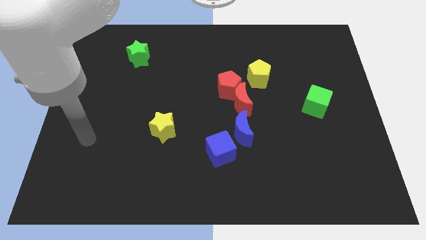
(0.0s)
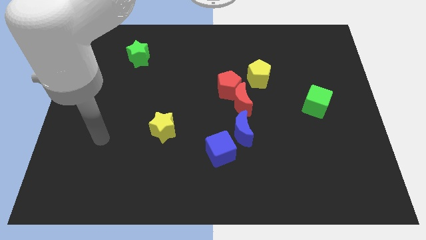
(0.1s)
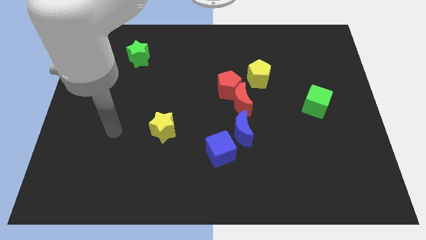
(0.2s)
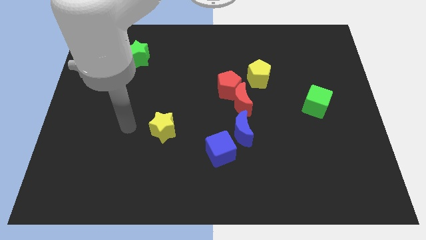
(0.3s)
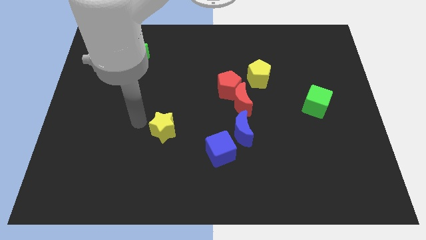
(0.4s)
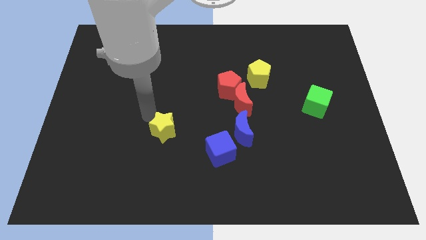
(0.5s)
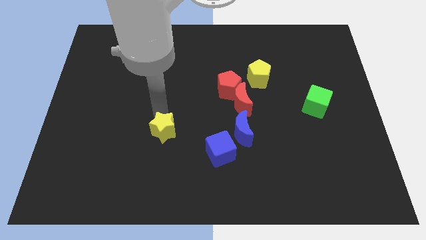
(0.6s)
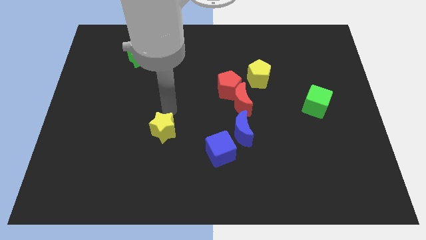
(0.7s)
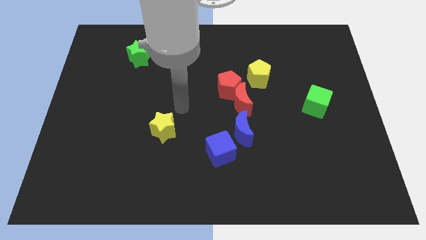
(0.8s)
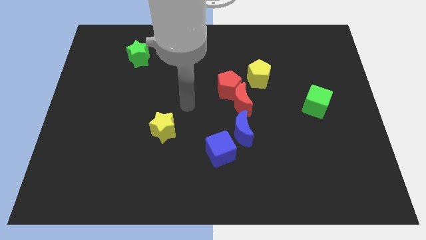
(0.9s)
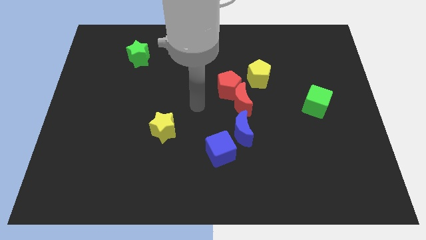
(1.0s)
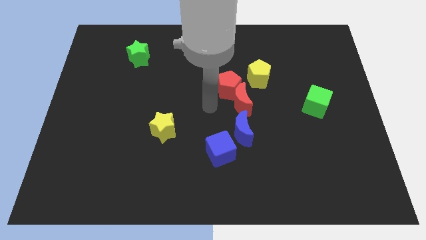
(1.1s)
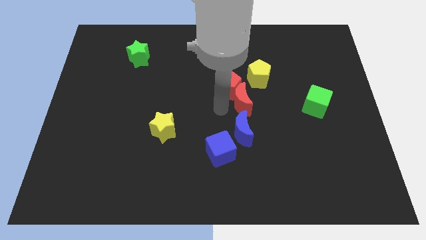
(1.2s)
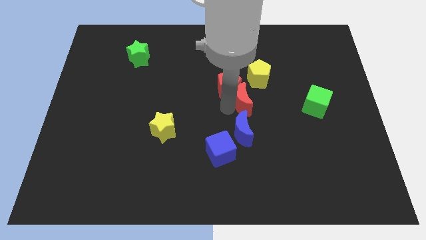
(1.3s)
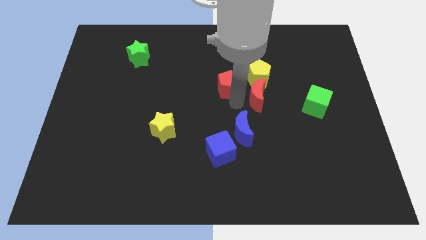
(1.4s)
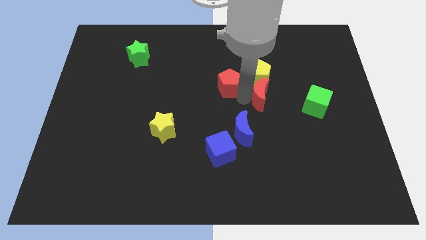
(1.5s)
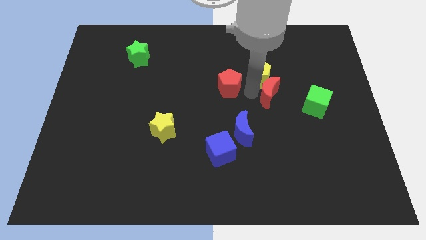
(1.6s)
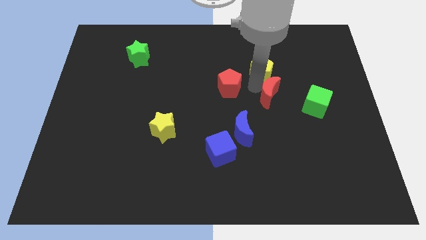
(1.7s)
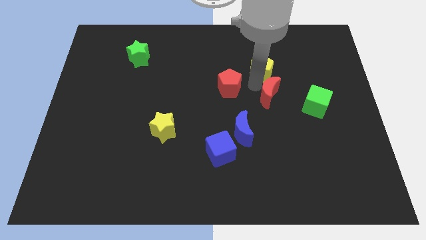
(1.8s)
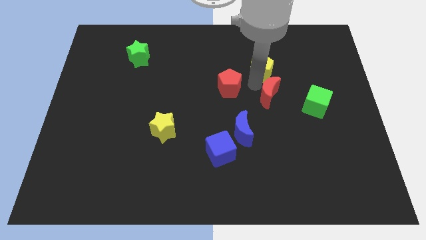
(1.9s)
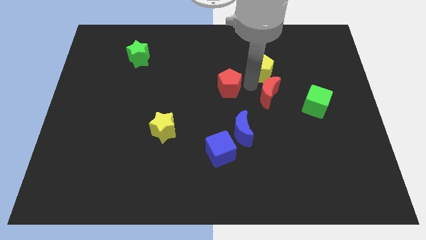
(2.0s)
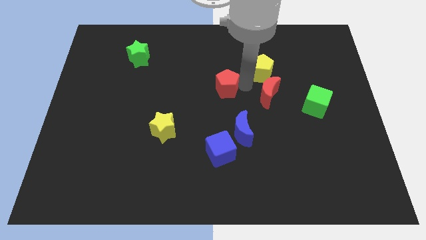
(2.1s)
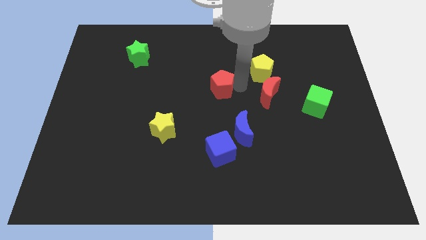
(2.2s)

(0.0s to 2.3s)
move the red pentagon away from the red moon and yellow pentagon

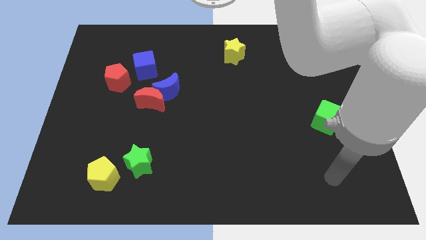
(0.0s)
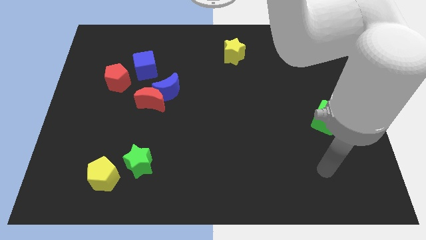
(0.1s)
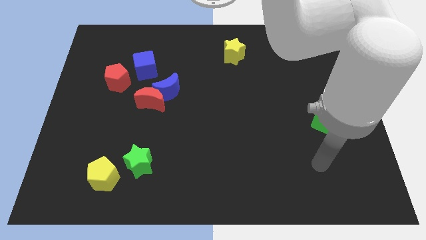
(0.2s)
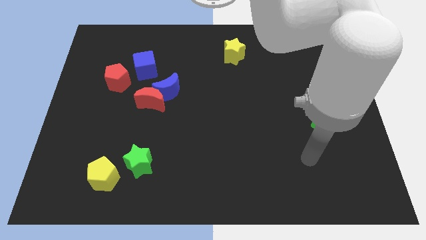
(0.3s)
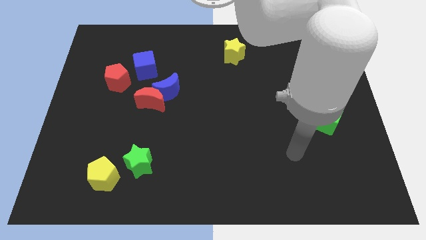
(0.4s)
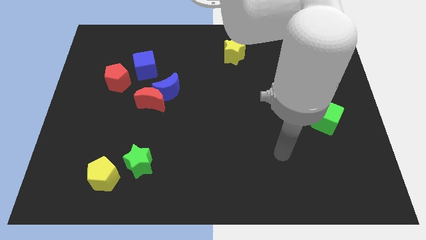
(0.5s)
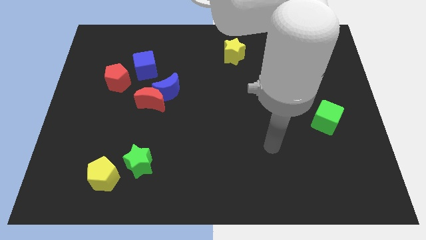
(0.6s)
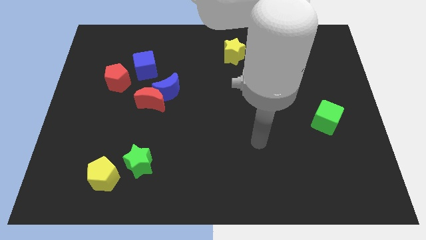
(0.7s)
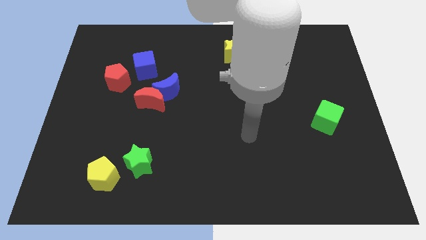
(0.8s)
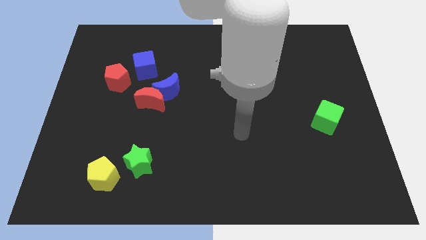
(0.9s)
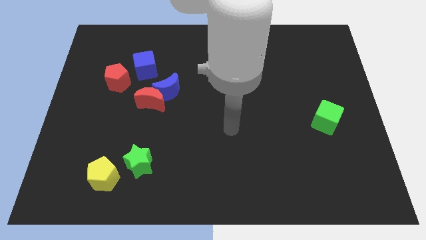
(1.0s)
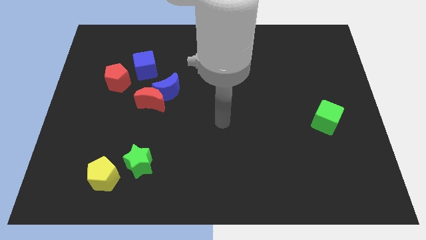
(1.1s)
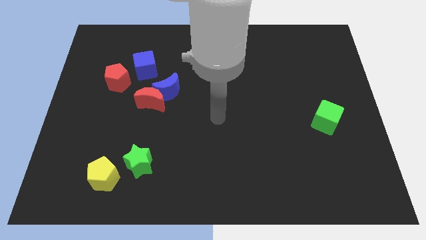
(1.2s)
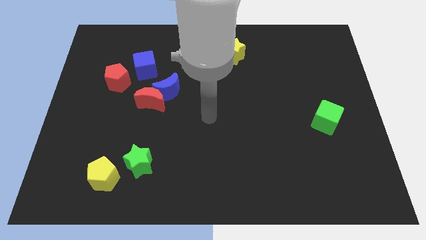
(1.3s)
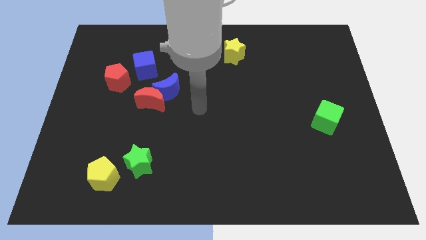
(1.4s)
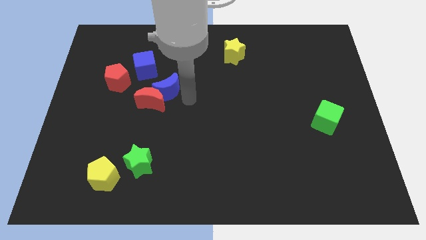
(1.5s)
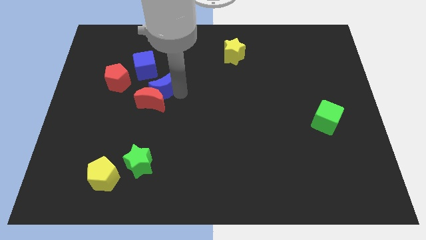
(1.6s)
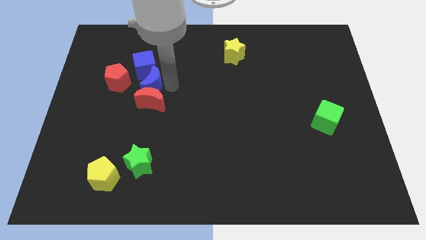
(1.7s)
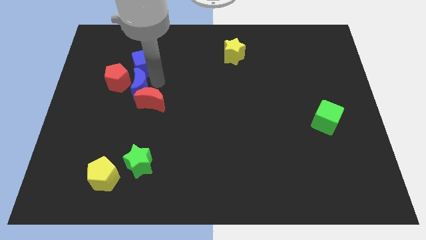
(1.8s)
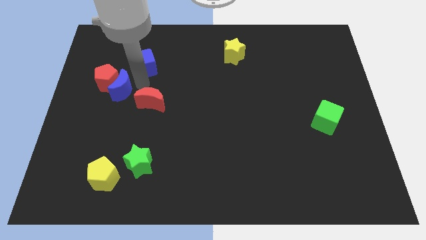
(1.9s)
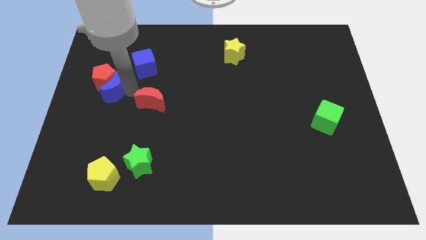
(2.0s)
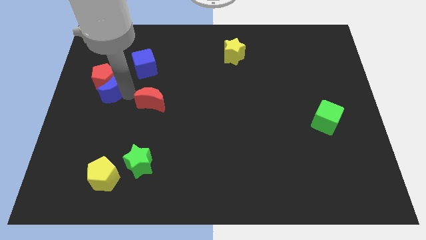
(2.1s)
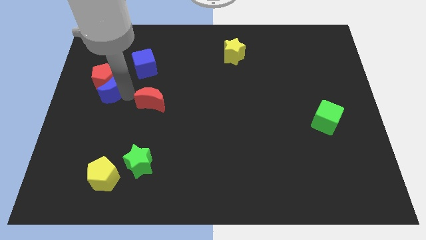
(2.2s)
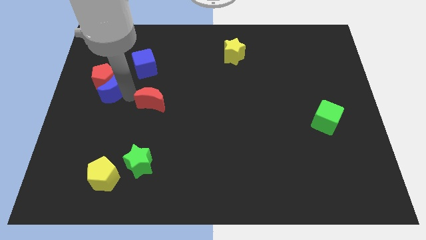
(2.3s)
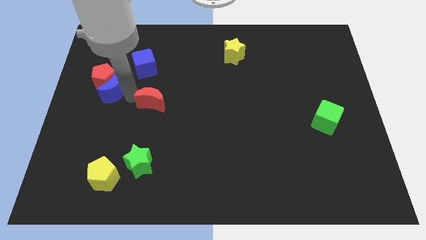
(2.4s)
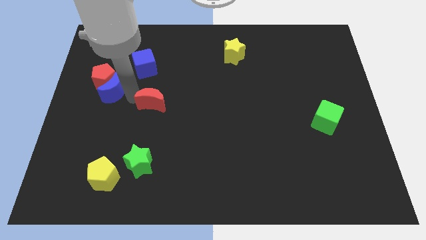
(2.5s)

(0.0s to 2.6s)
pull the red moon apart from the blue moon

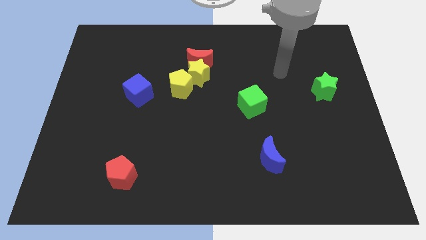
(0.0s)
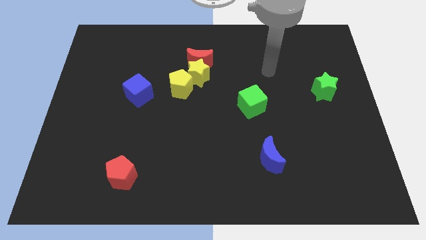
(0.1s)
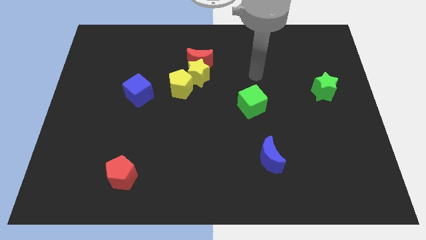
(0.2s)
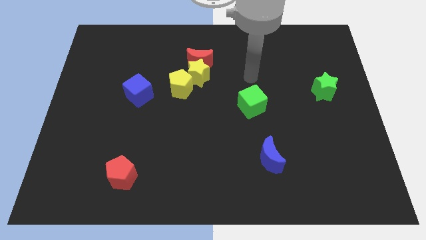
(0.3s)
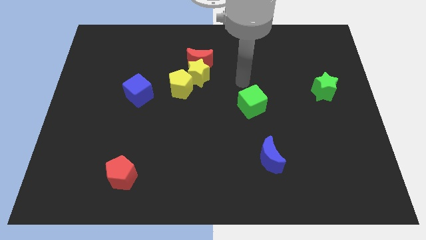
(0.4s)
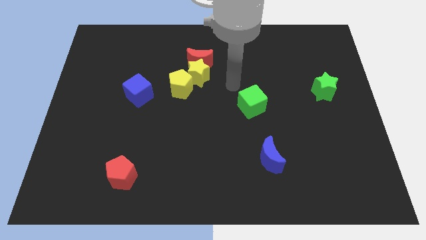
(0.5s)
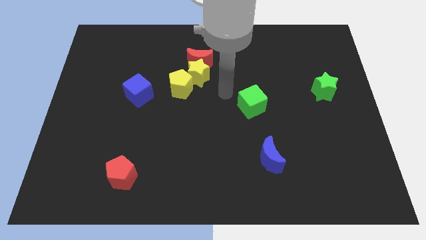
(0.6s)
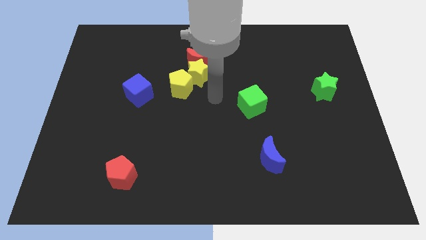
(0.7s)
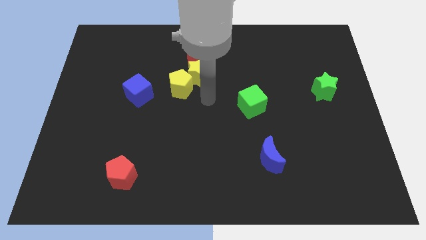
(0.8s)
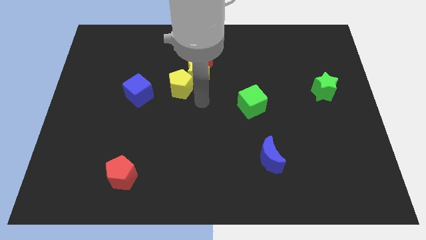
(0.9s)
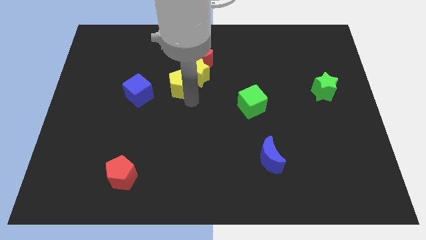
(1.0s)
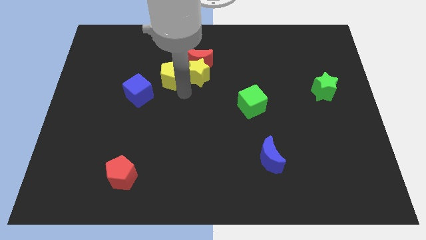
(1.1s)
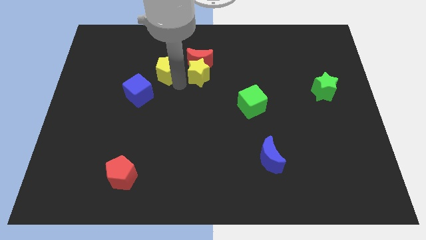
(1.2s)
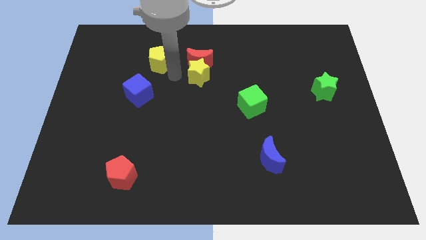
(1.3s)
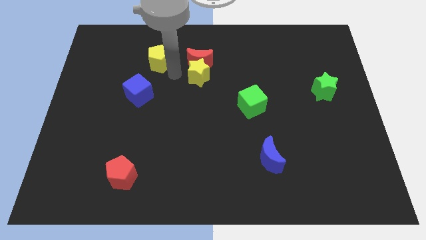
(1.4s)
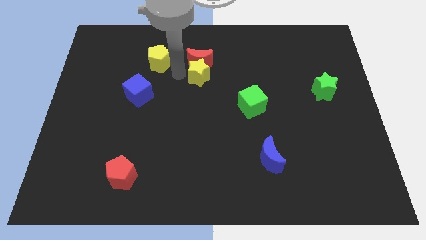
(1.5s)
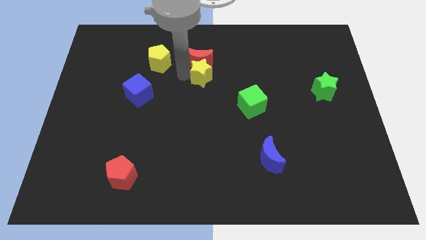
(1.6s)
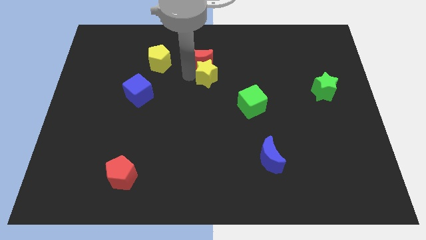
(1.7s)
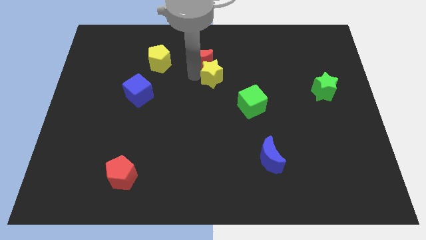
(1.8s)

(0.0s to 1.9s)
separate the yellow star from the red moon and yellow pentagon

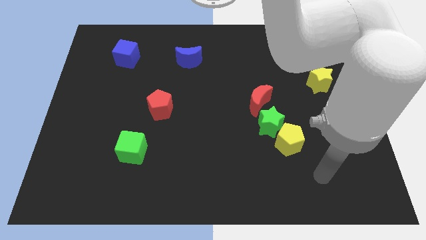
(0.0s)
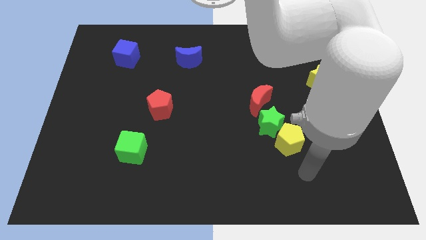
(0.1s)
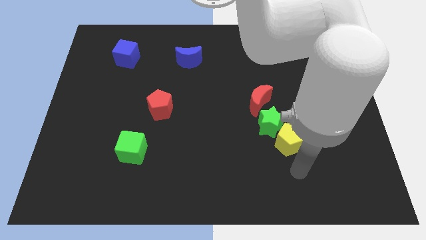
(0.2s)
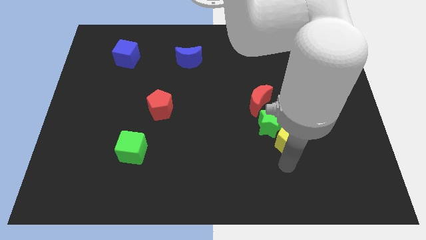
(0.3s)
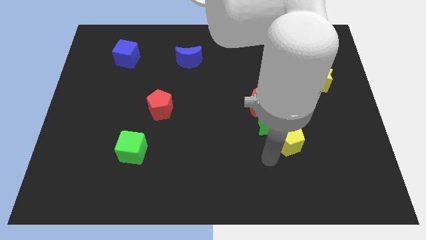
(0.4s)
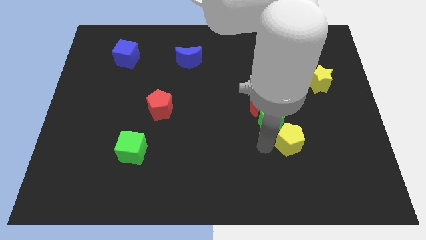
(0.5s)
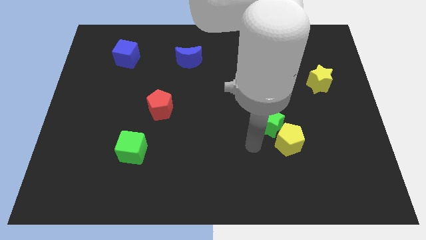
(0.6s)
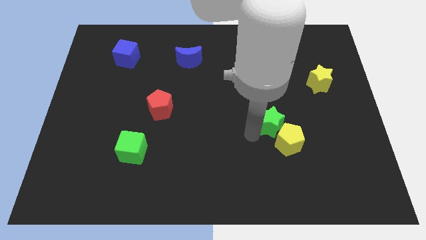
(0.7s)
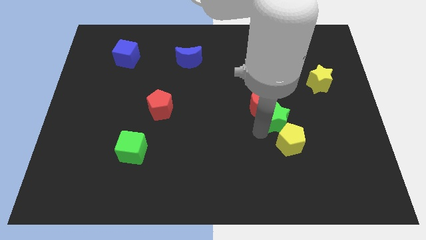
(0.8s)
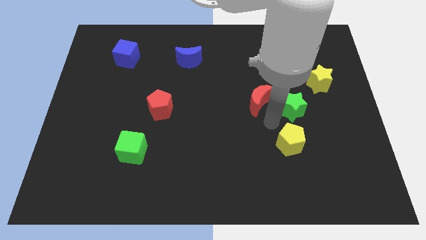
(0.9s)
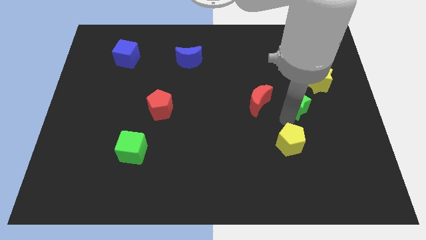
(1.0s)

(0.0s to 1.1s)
pull the yellow pentagon apart from the green star

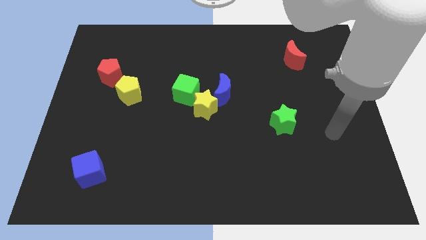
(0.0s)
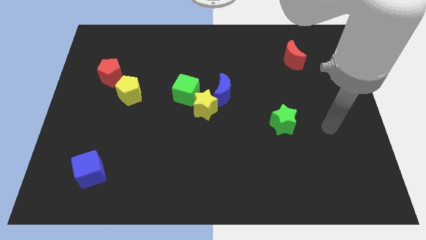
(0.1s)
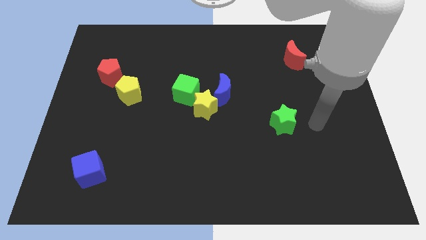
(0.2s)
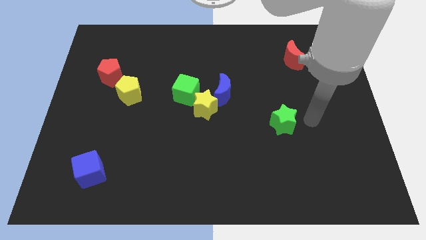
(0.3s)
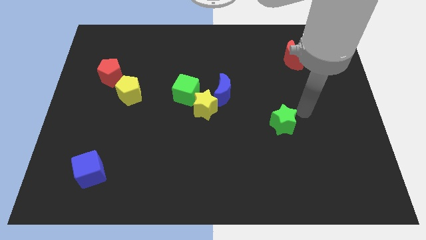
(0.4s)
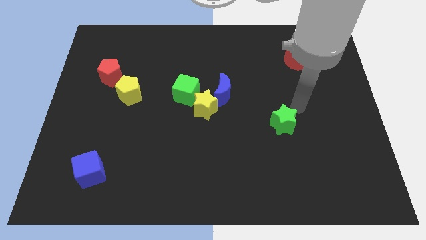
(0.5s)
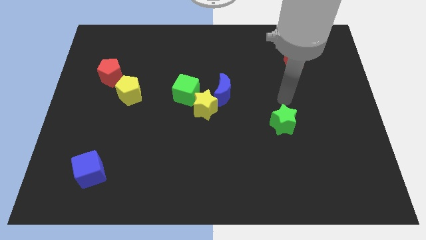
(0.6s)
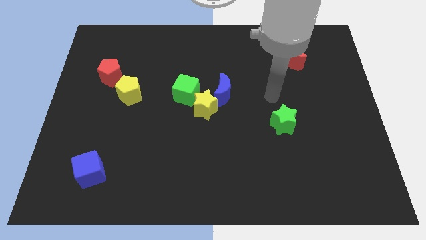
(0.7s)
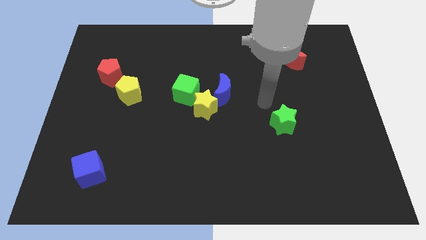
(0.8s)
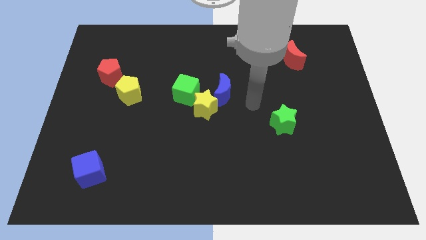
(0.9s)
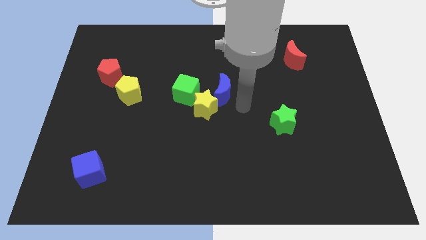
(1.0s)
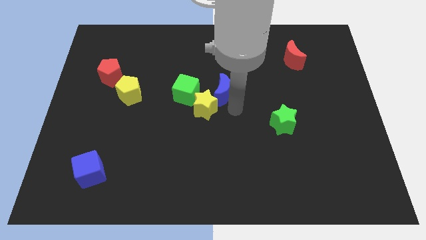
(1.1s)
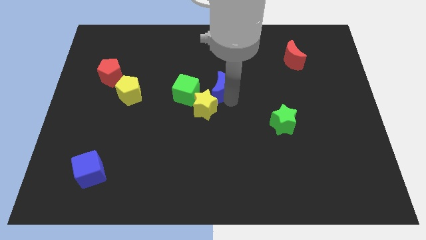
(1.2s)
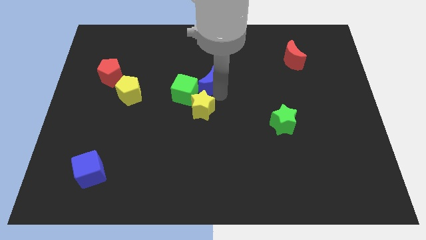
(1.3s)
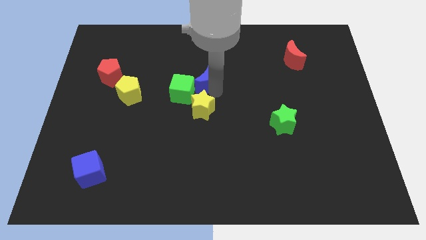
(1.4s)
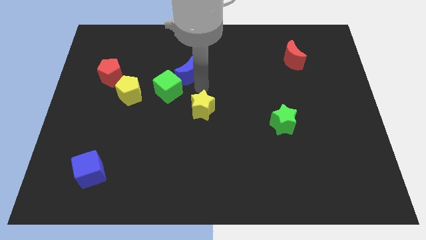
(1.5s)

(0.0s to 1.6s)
move the yellow star away from the green cube and blue moon

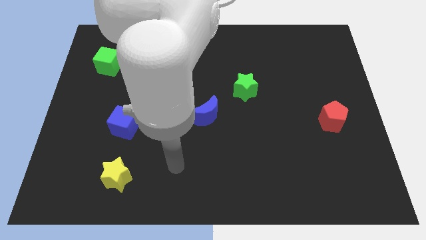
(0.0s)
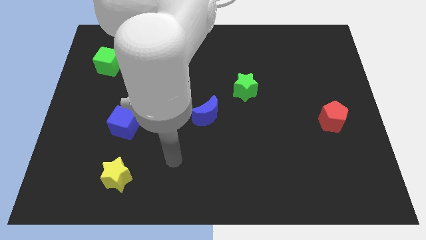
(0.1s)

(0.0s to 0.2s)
move the blue cube away from the yellow pentagon
